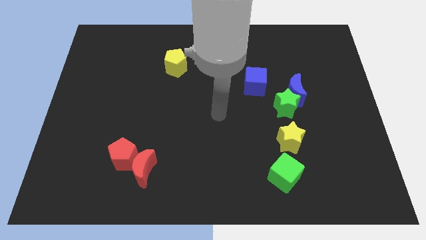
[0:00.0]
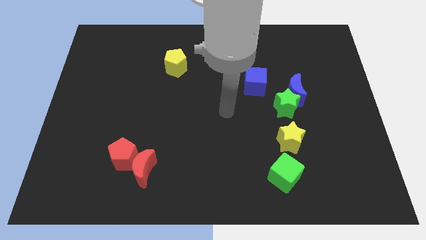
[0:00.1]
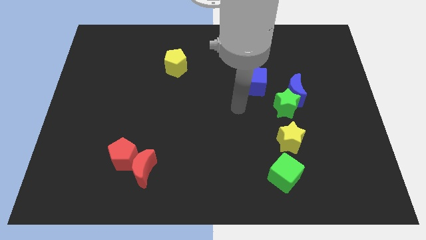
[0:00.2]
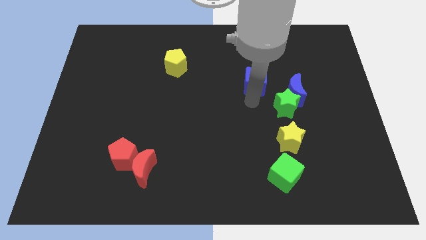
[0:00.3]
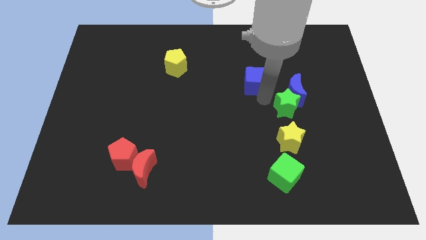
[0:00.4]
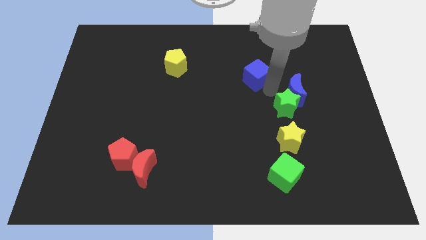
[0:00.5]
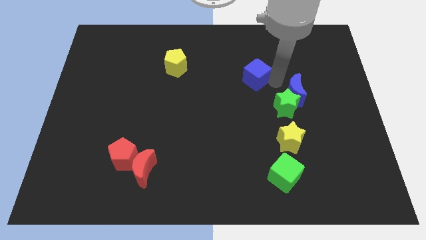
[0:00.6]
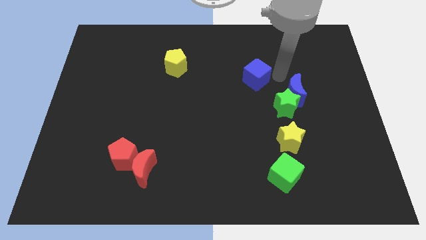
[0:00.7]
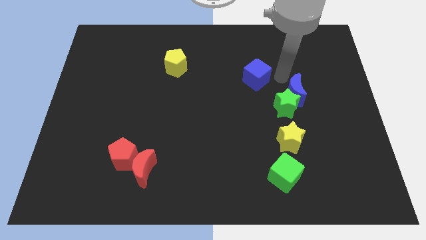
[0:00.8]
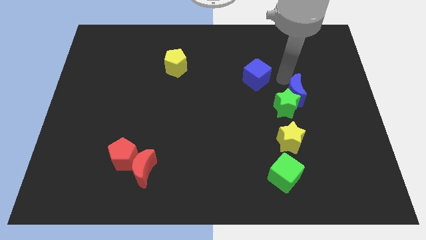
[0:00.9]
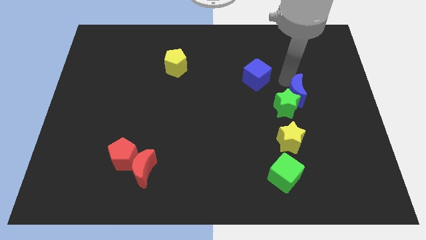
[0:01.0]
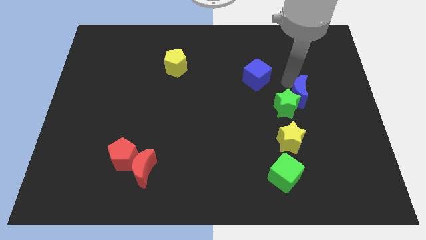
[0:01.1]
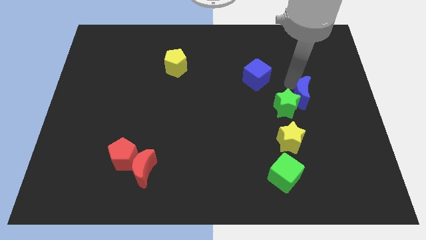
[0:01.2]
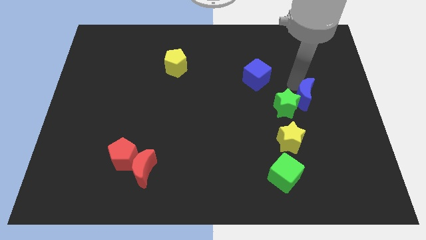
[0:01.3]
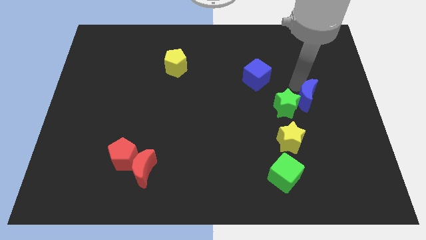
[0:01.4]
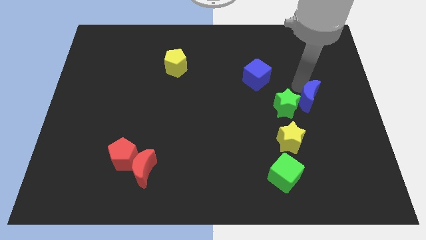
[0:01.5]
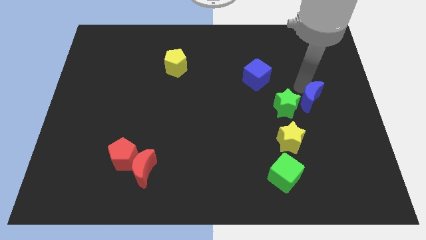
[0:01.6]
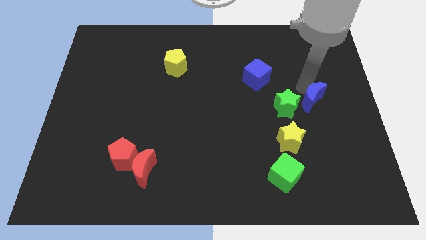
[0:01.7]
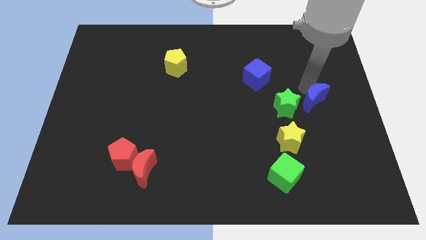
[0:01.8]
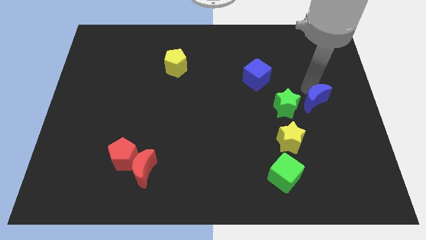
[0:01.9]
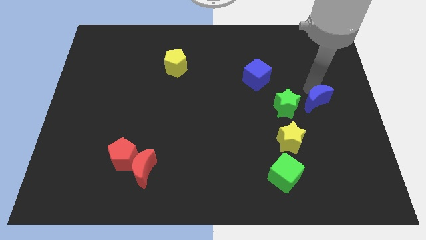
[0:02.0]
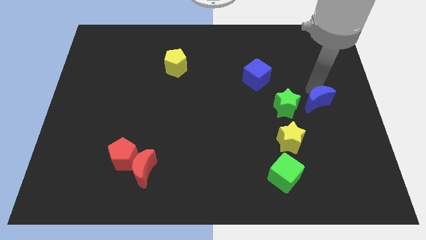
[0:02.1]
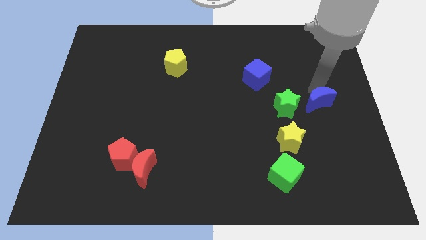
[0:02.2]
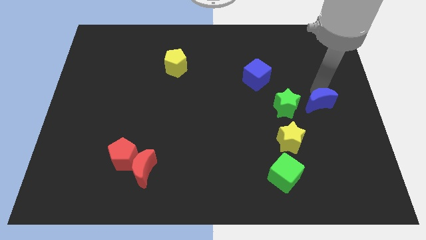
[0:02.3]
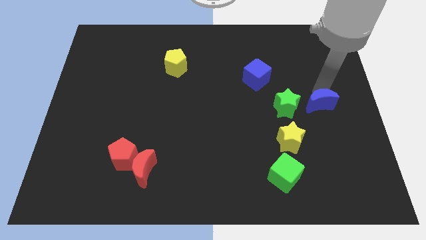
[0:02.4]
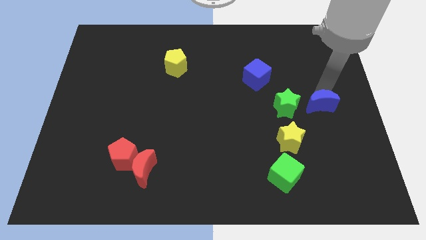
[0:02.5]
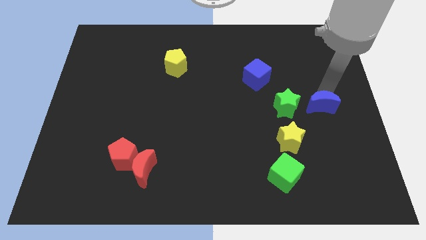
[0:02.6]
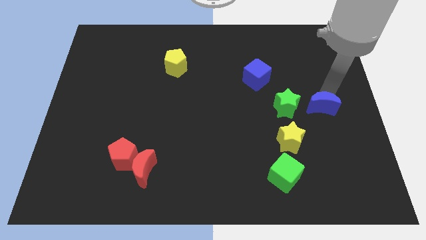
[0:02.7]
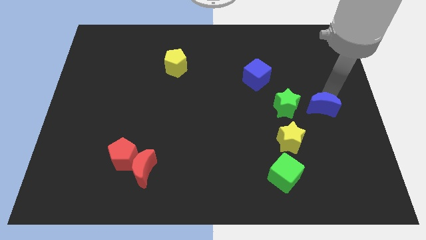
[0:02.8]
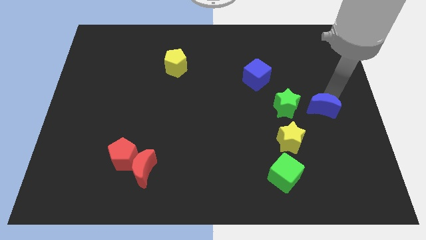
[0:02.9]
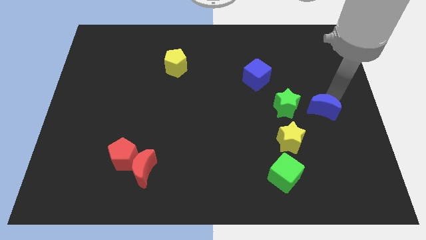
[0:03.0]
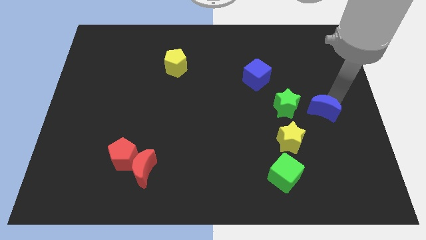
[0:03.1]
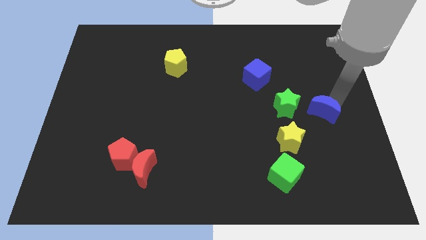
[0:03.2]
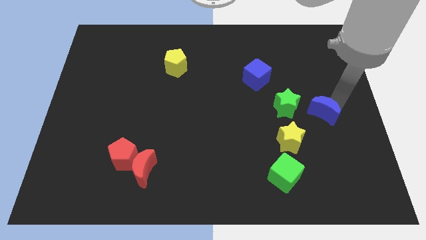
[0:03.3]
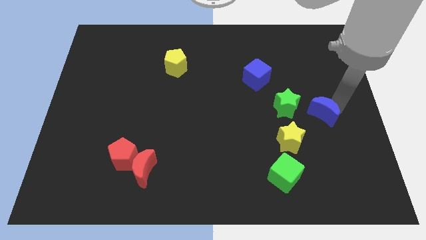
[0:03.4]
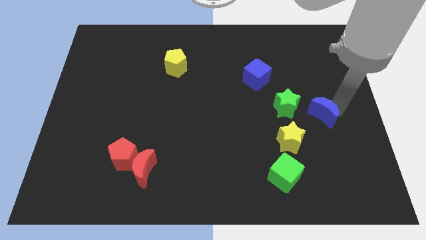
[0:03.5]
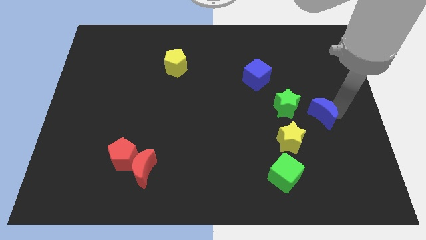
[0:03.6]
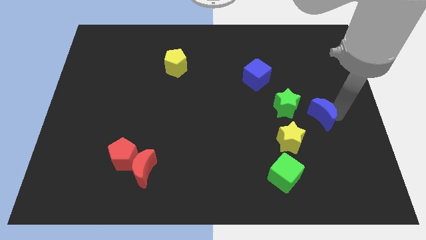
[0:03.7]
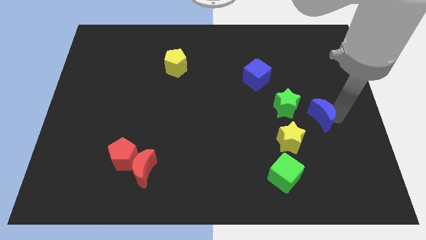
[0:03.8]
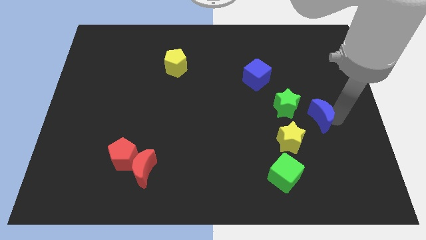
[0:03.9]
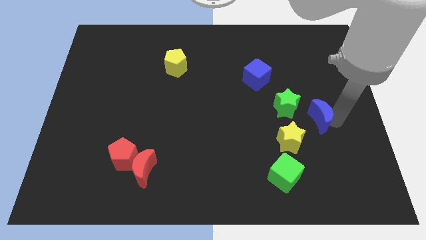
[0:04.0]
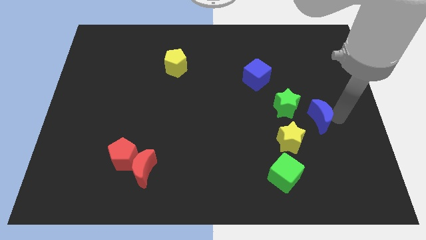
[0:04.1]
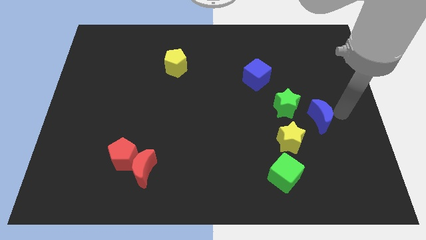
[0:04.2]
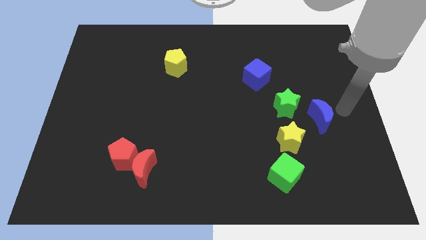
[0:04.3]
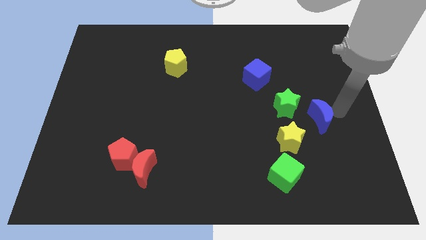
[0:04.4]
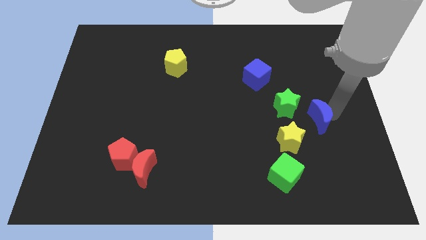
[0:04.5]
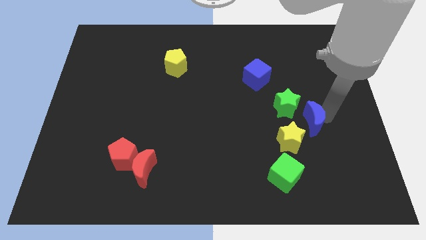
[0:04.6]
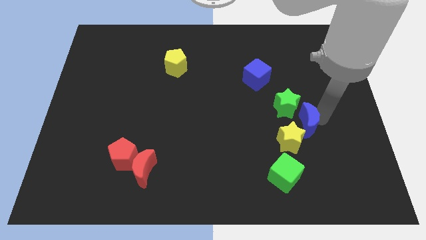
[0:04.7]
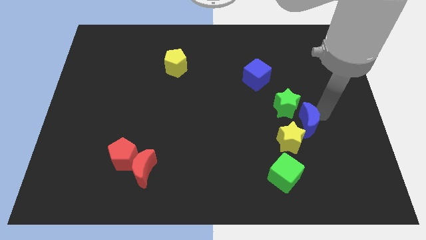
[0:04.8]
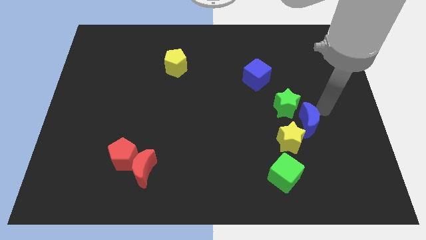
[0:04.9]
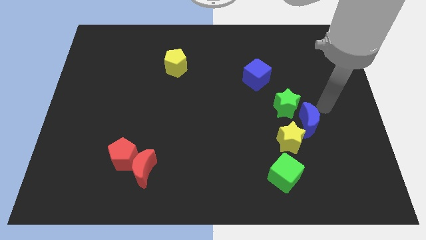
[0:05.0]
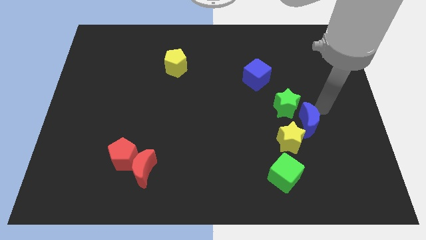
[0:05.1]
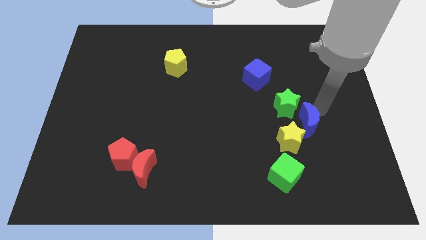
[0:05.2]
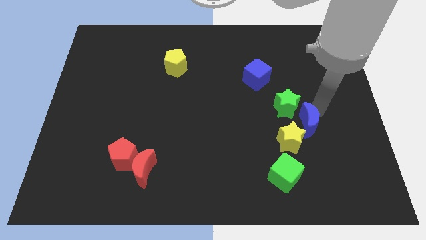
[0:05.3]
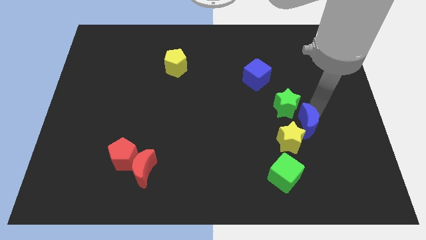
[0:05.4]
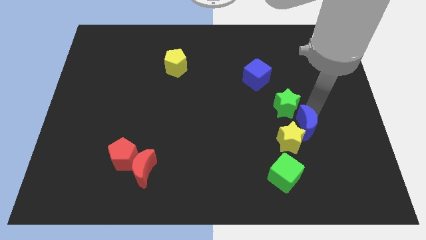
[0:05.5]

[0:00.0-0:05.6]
put the blue moon towards the yellow star
